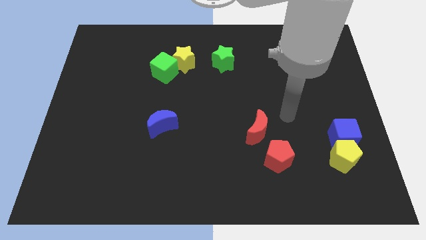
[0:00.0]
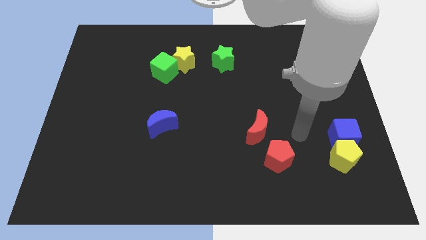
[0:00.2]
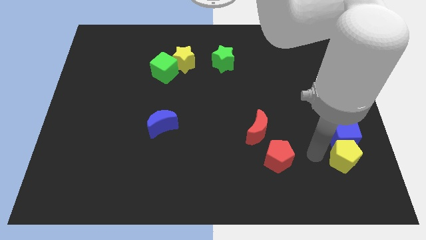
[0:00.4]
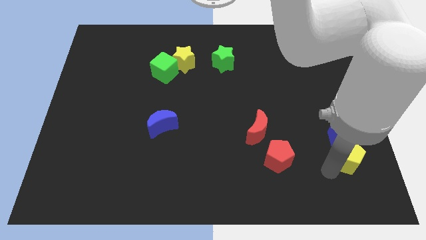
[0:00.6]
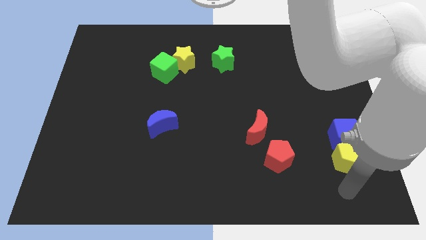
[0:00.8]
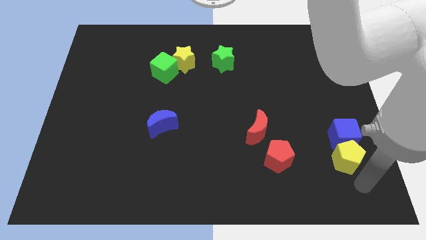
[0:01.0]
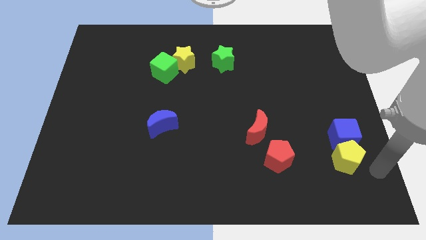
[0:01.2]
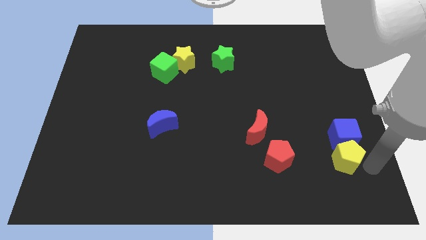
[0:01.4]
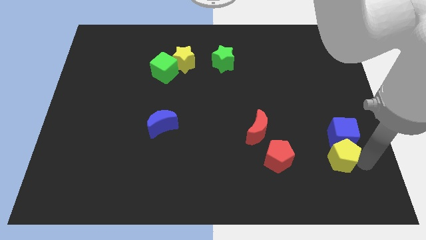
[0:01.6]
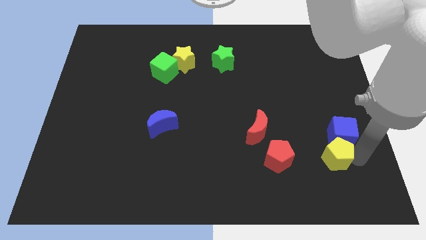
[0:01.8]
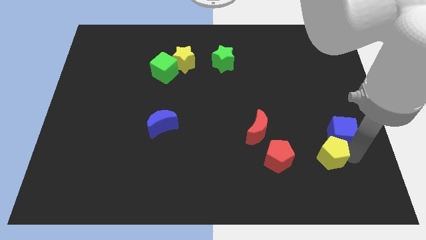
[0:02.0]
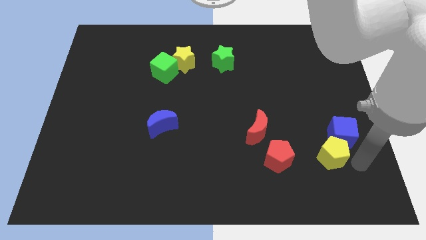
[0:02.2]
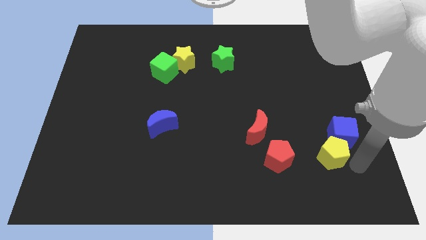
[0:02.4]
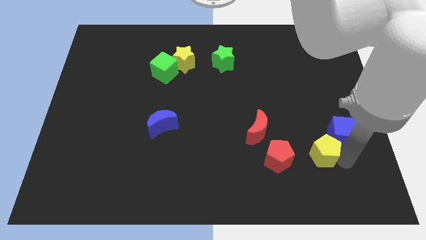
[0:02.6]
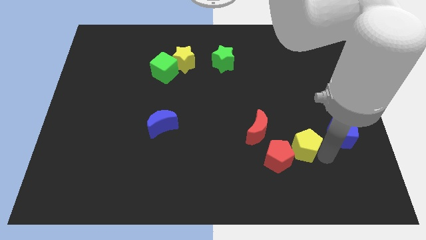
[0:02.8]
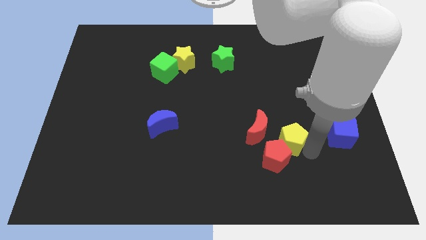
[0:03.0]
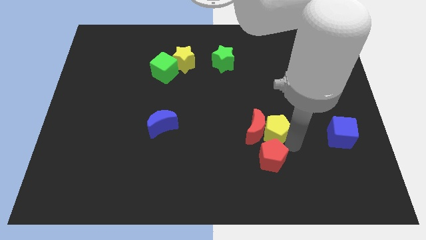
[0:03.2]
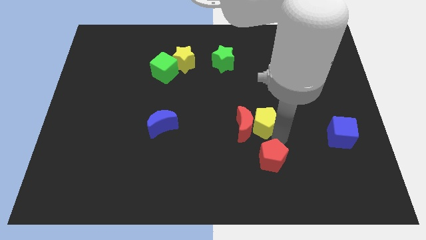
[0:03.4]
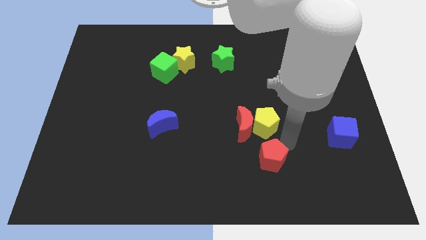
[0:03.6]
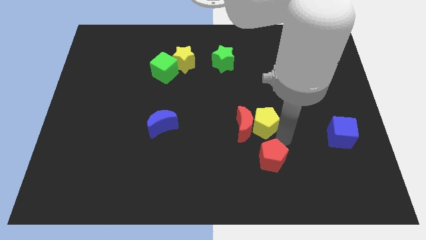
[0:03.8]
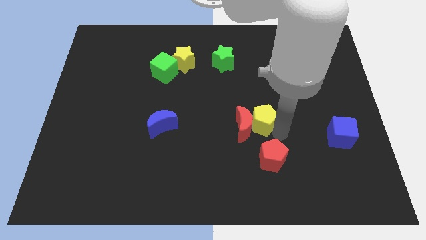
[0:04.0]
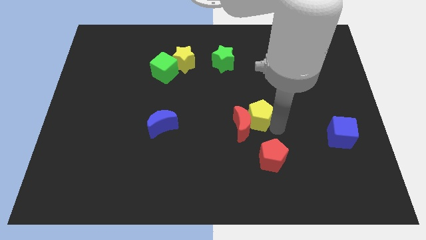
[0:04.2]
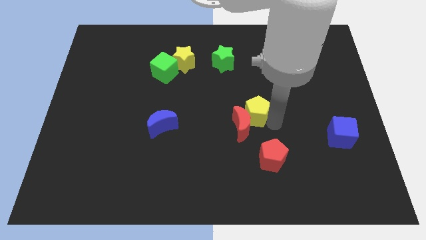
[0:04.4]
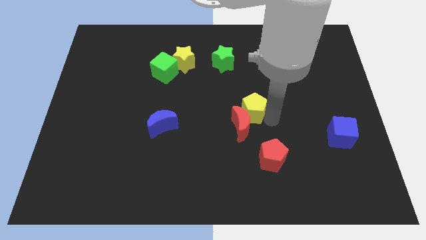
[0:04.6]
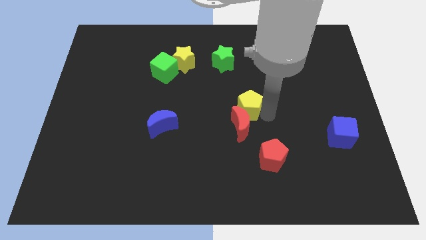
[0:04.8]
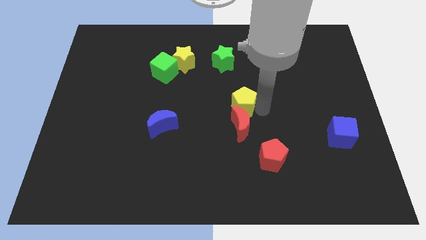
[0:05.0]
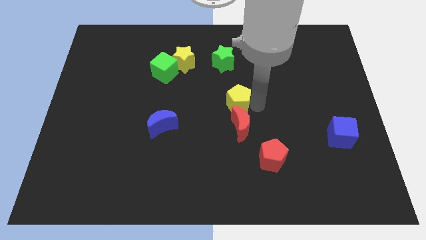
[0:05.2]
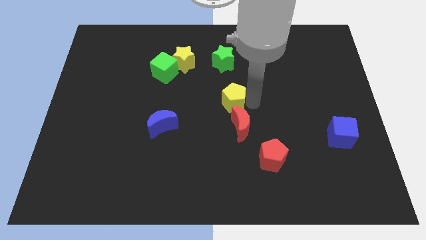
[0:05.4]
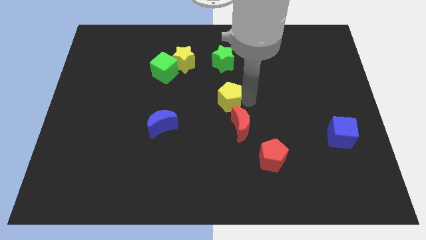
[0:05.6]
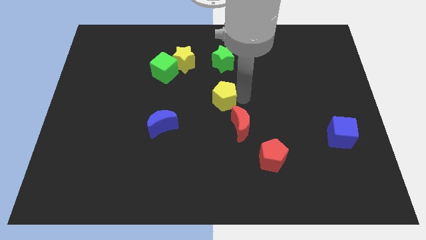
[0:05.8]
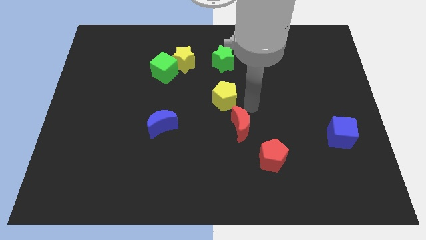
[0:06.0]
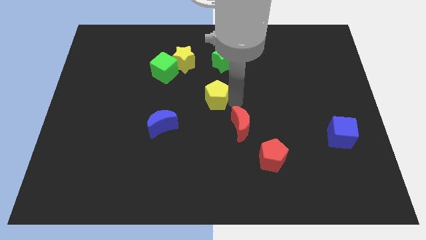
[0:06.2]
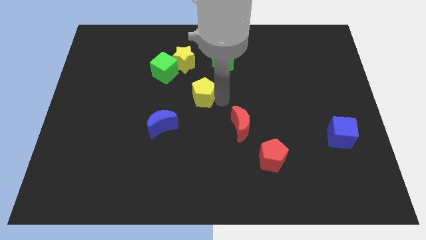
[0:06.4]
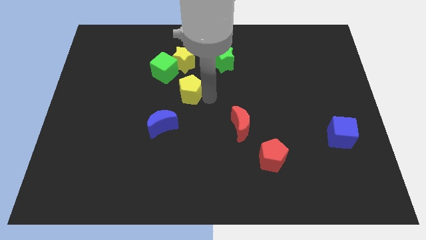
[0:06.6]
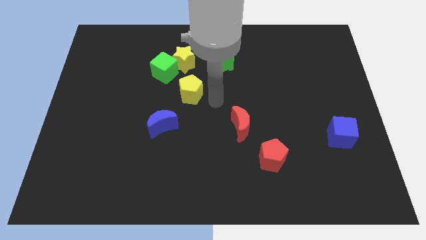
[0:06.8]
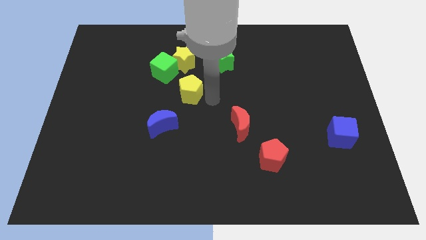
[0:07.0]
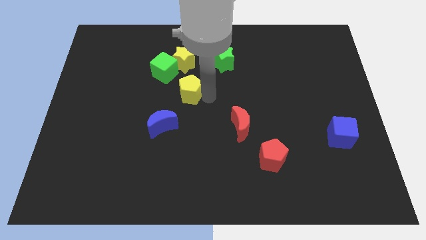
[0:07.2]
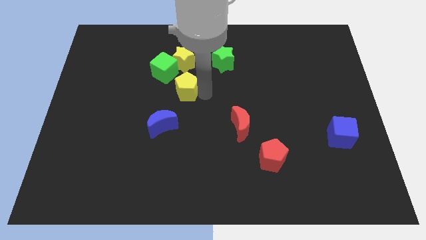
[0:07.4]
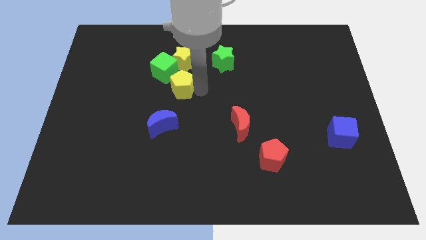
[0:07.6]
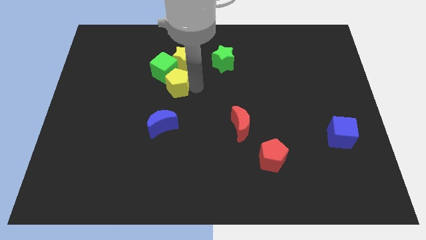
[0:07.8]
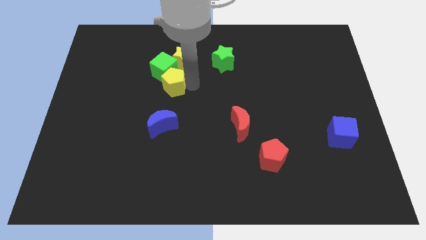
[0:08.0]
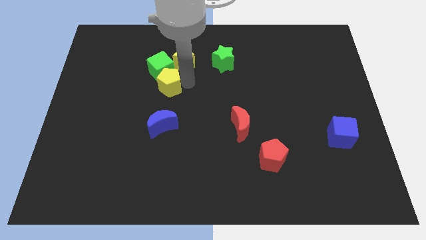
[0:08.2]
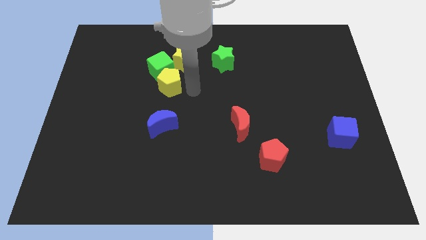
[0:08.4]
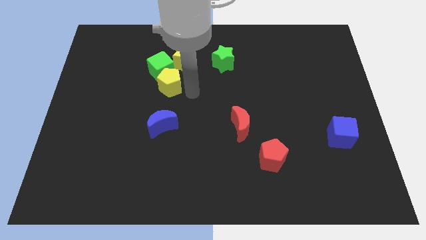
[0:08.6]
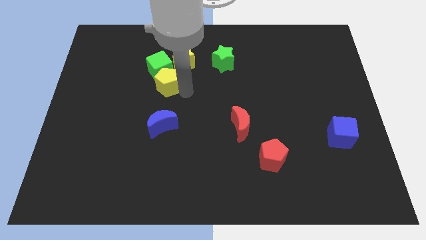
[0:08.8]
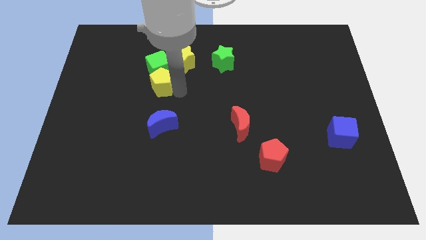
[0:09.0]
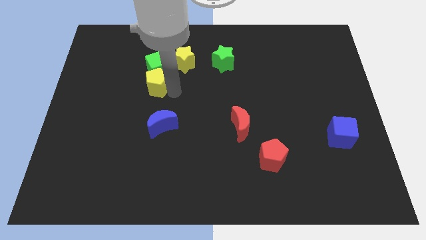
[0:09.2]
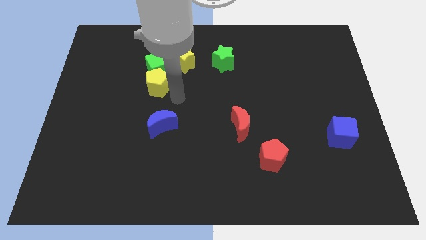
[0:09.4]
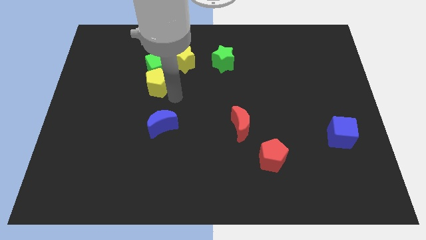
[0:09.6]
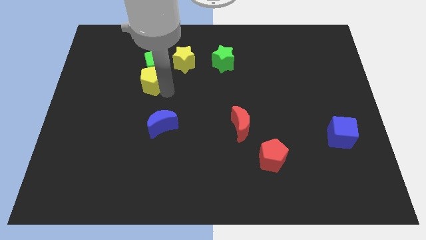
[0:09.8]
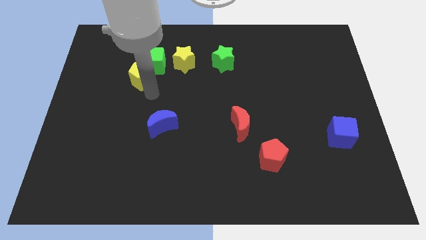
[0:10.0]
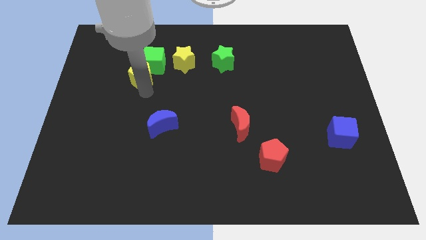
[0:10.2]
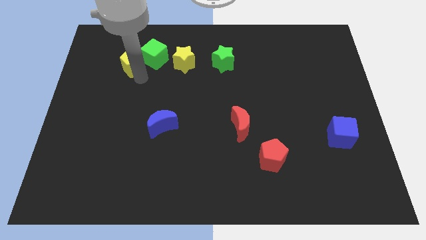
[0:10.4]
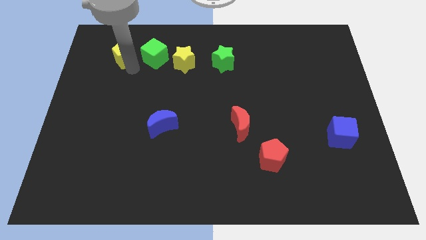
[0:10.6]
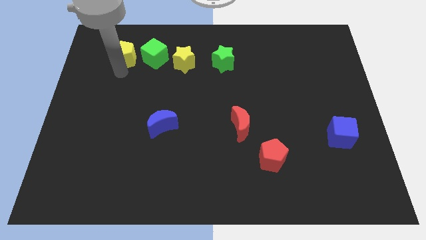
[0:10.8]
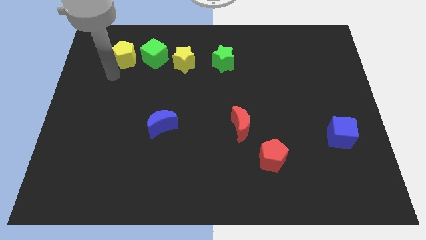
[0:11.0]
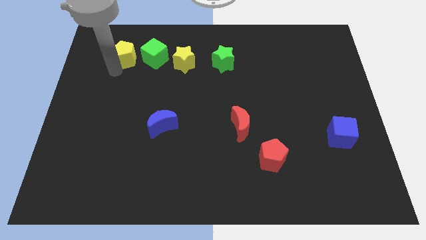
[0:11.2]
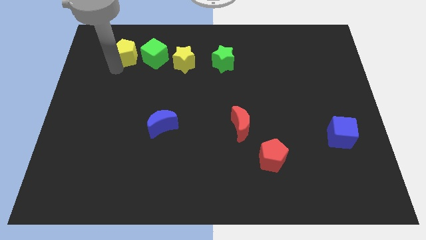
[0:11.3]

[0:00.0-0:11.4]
push the yellow pentagon to the top left side of the green cube

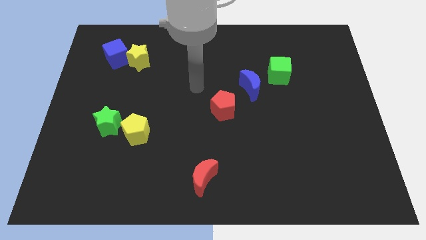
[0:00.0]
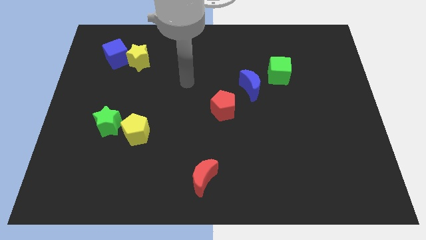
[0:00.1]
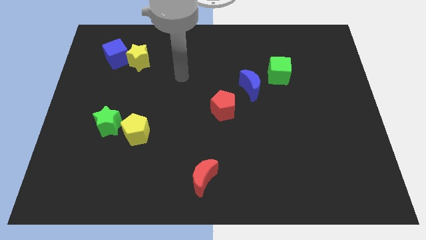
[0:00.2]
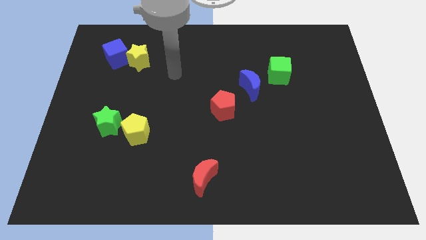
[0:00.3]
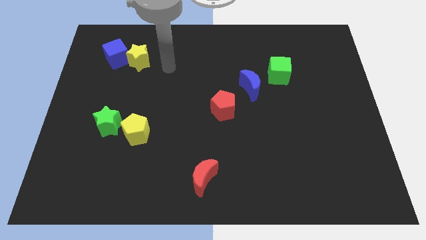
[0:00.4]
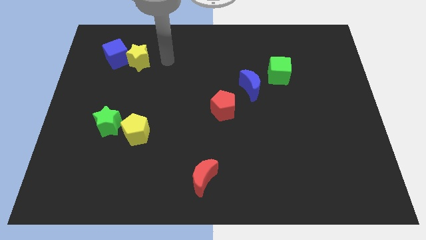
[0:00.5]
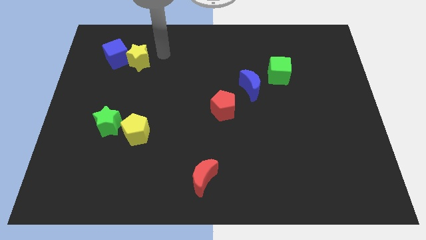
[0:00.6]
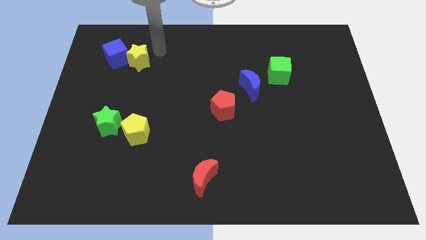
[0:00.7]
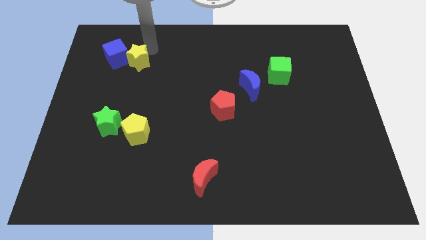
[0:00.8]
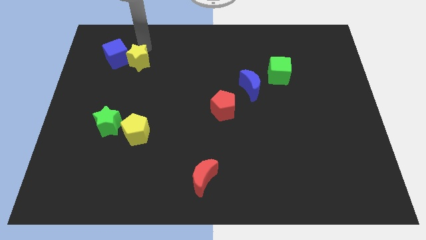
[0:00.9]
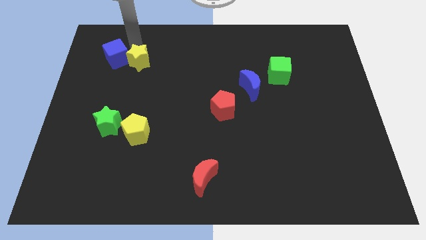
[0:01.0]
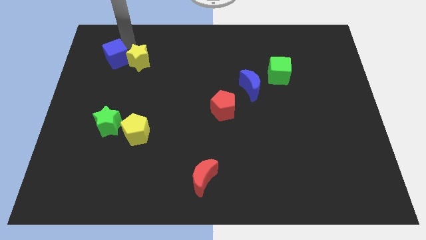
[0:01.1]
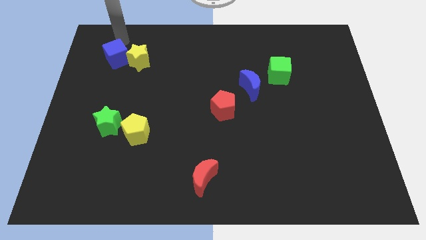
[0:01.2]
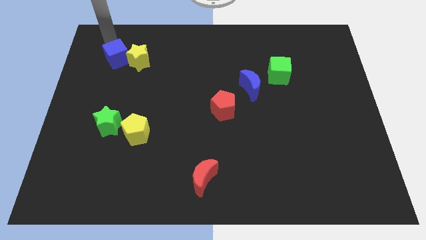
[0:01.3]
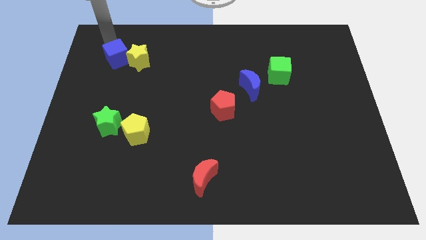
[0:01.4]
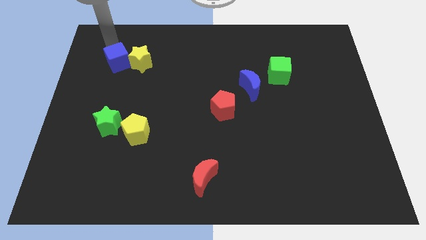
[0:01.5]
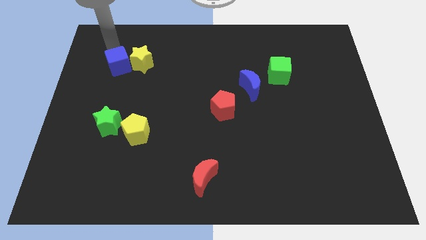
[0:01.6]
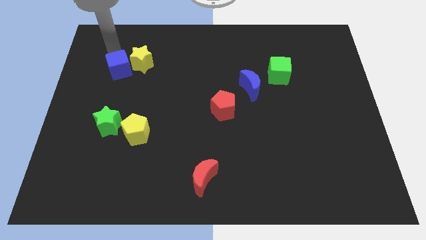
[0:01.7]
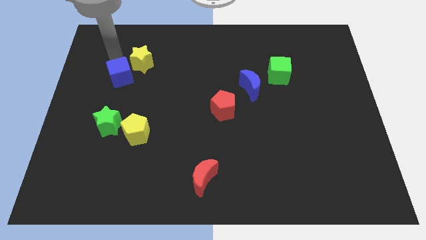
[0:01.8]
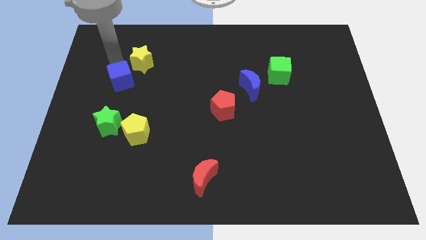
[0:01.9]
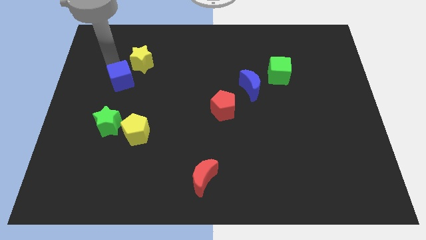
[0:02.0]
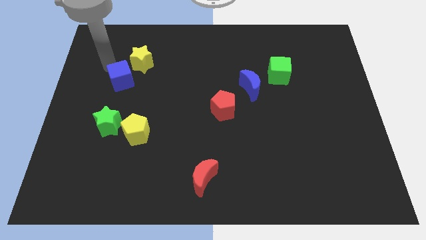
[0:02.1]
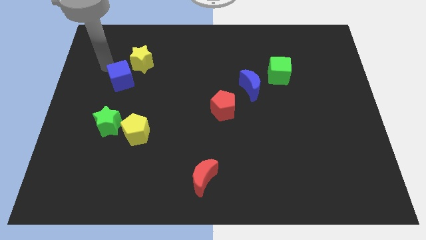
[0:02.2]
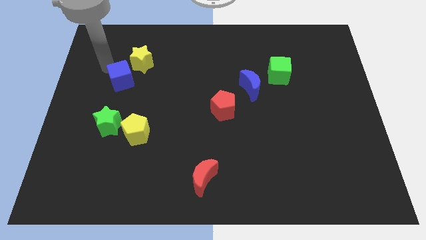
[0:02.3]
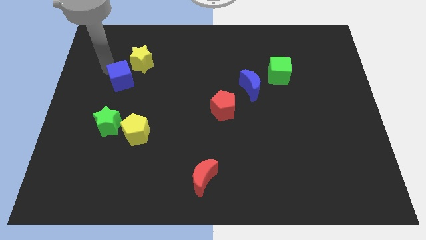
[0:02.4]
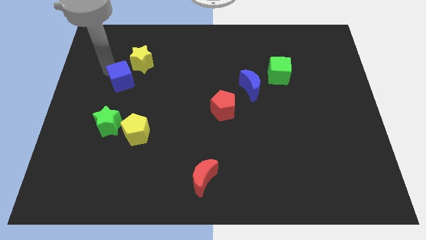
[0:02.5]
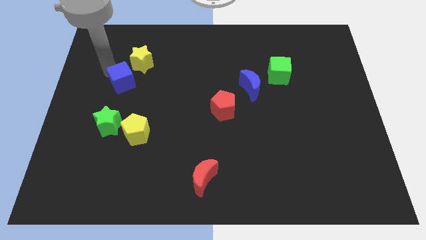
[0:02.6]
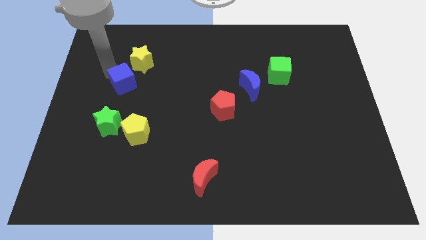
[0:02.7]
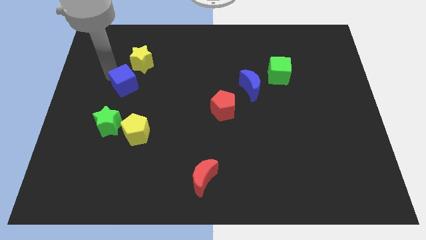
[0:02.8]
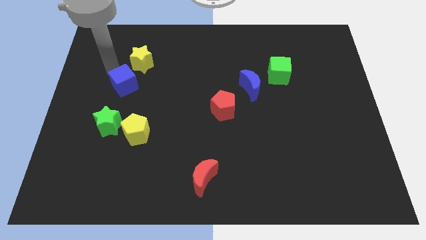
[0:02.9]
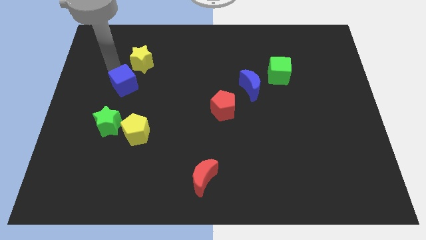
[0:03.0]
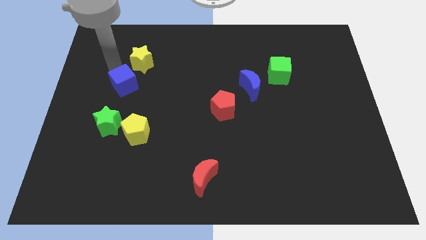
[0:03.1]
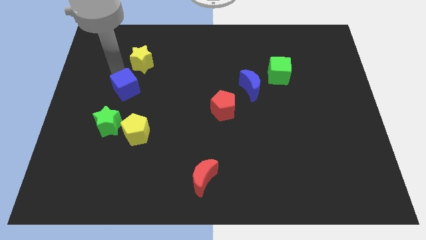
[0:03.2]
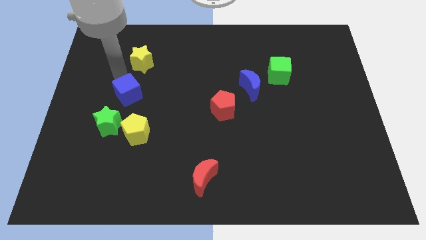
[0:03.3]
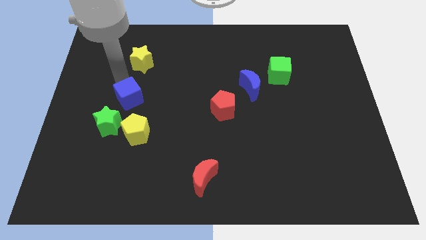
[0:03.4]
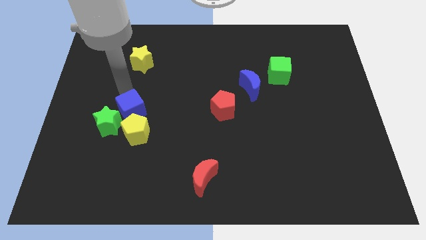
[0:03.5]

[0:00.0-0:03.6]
put the blue cube to the right of the green star
